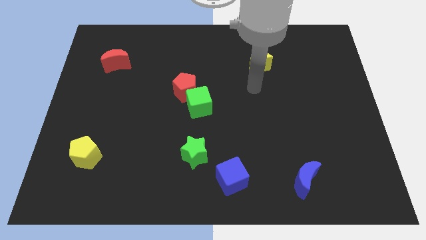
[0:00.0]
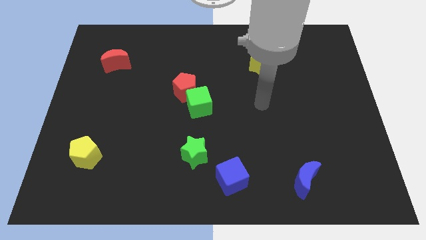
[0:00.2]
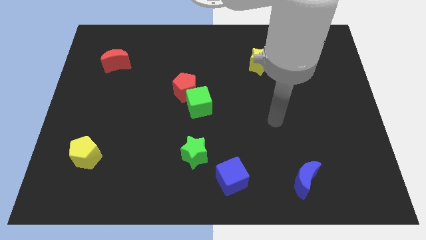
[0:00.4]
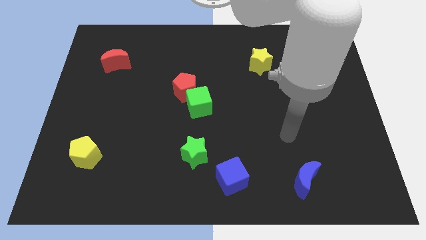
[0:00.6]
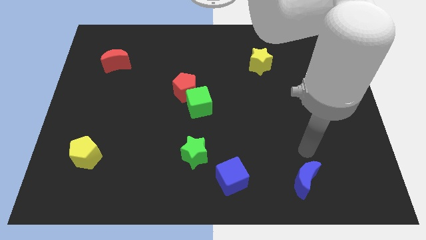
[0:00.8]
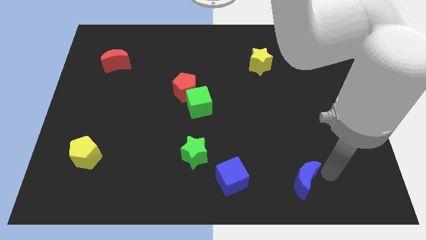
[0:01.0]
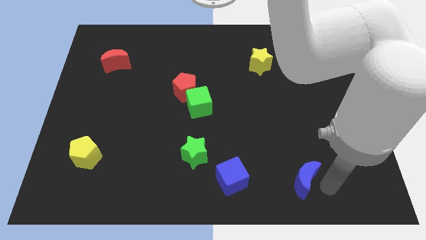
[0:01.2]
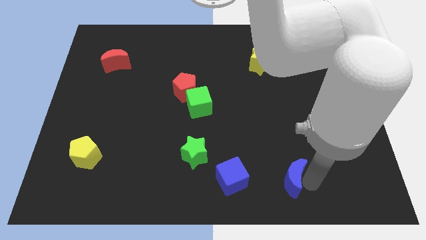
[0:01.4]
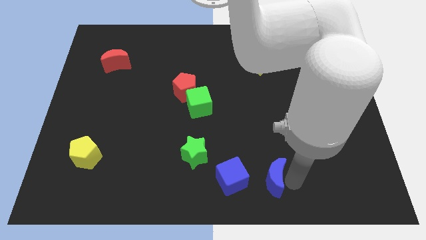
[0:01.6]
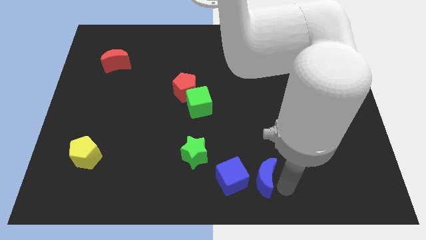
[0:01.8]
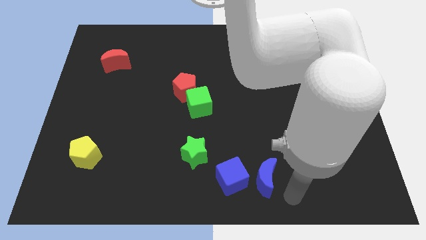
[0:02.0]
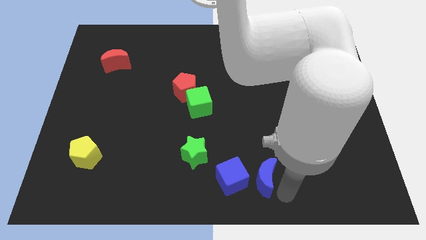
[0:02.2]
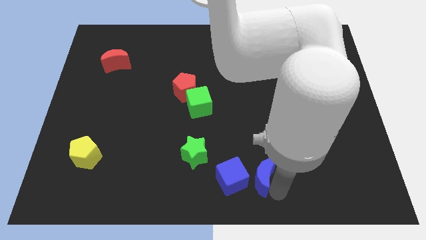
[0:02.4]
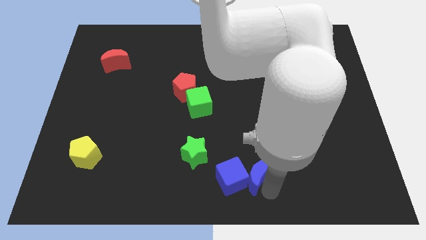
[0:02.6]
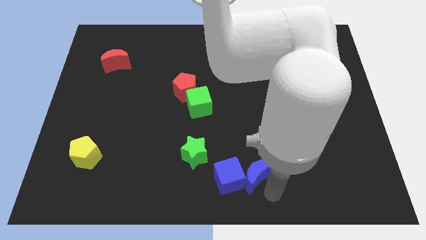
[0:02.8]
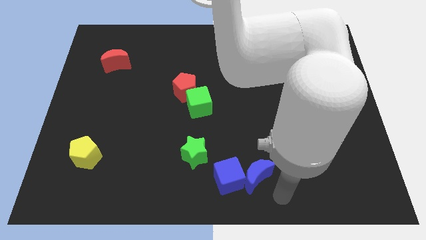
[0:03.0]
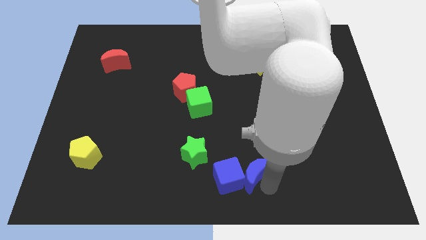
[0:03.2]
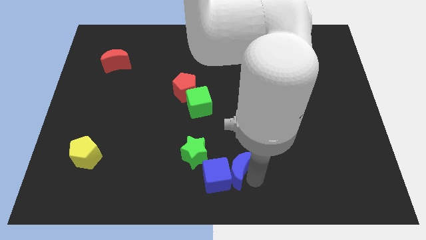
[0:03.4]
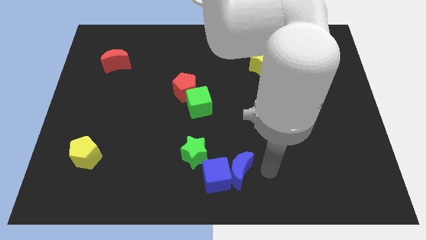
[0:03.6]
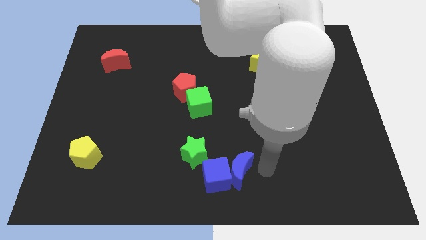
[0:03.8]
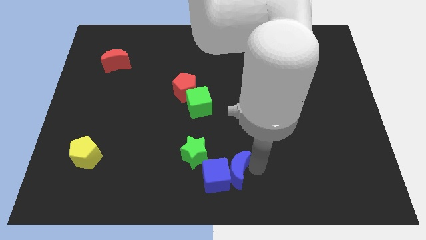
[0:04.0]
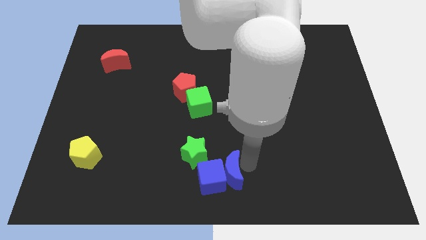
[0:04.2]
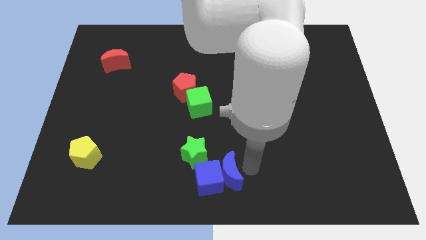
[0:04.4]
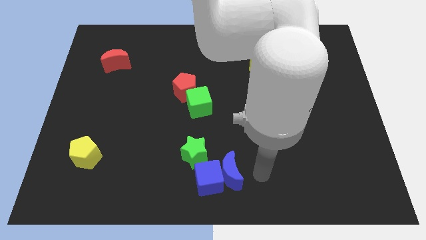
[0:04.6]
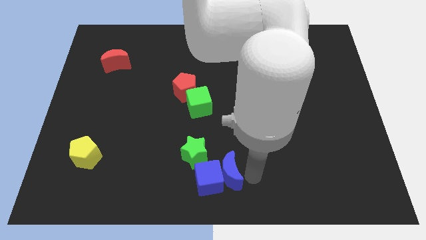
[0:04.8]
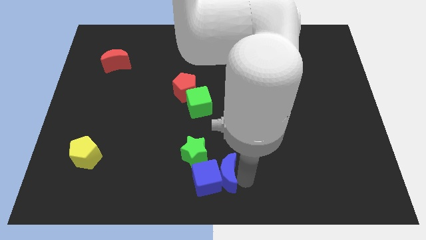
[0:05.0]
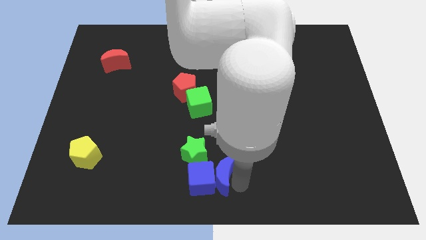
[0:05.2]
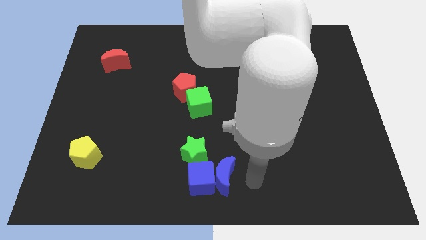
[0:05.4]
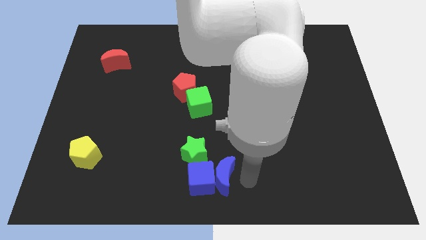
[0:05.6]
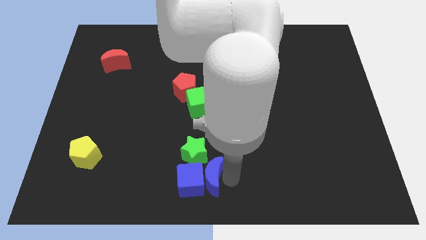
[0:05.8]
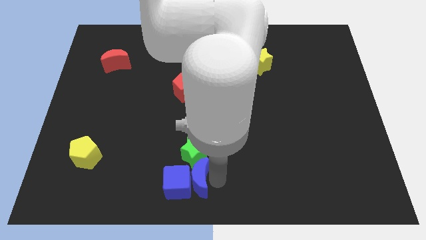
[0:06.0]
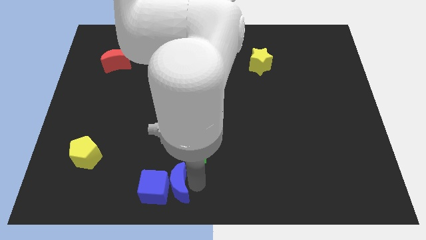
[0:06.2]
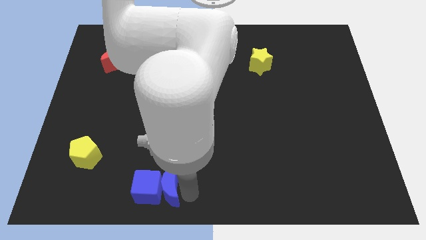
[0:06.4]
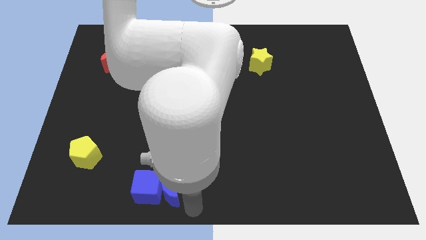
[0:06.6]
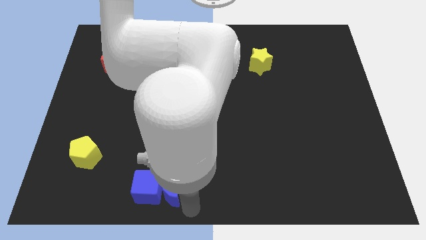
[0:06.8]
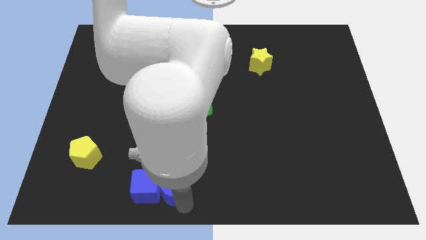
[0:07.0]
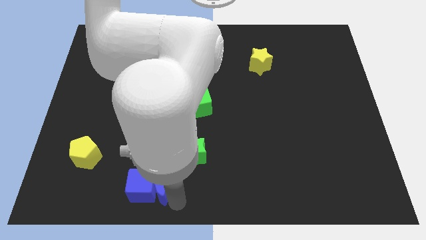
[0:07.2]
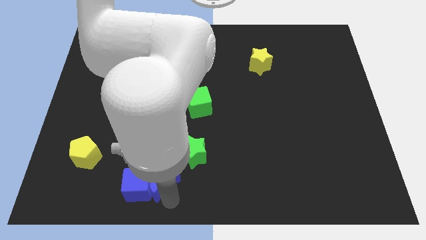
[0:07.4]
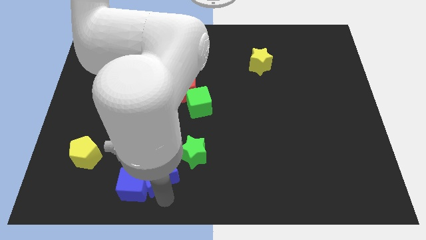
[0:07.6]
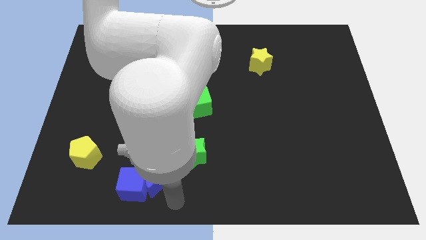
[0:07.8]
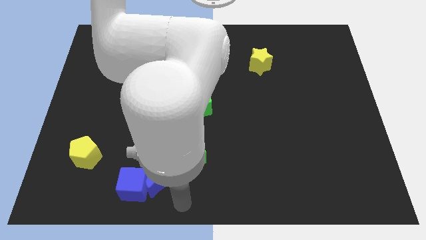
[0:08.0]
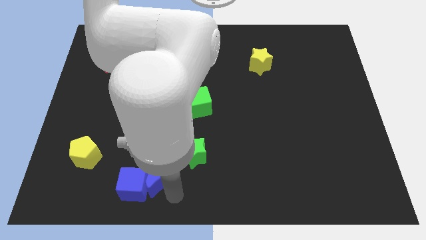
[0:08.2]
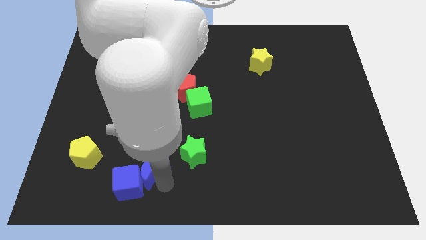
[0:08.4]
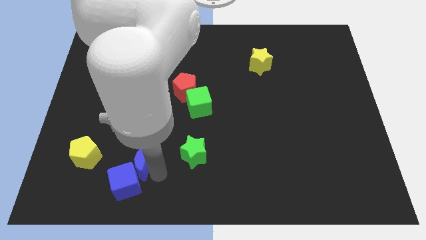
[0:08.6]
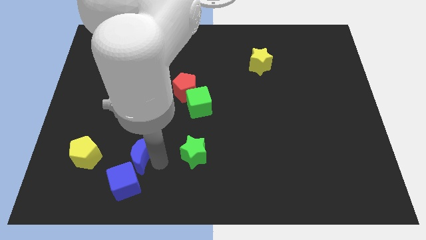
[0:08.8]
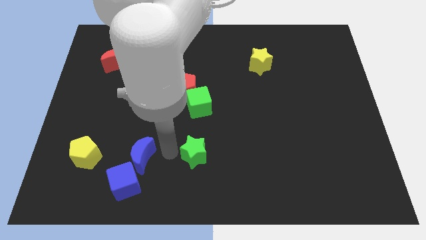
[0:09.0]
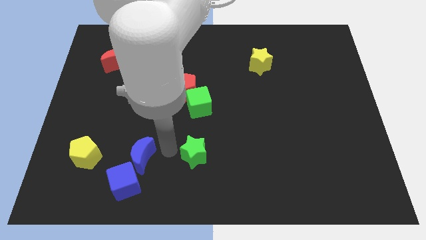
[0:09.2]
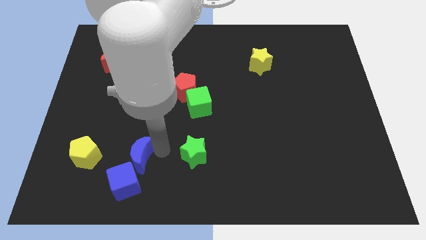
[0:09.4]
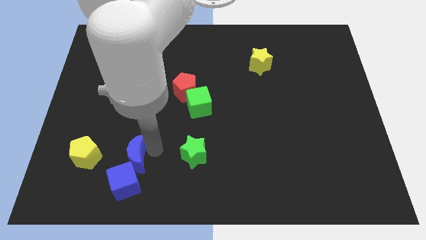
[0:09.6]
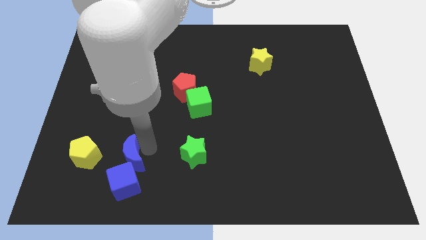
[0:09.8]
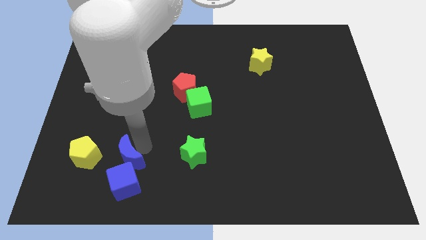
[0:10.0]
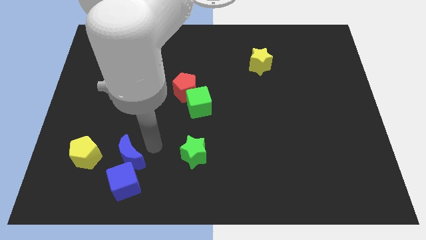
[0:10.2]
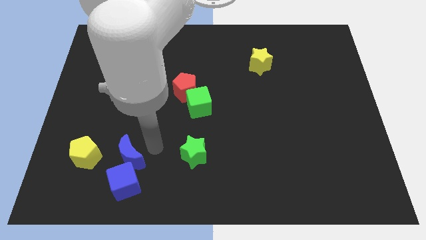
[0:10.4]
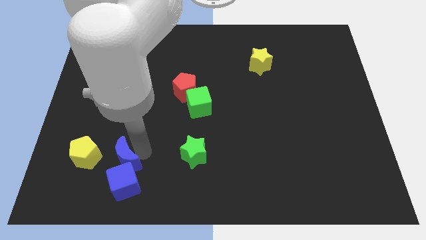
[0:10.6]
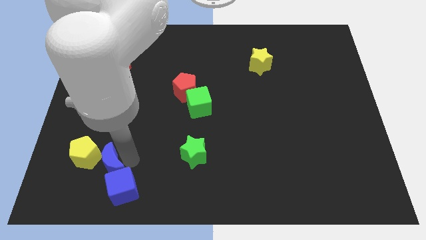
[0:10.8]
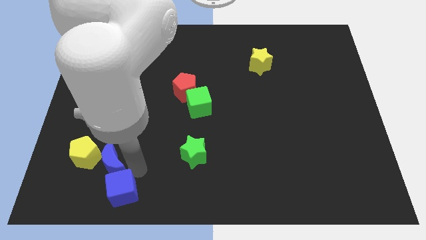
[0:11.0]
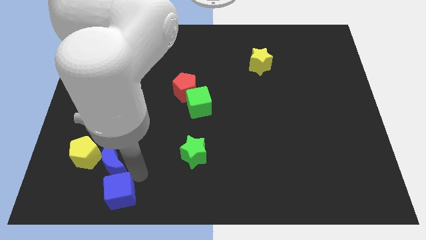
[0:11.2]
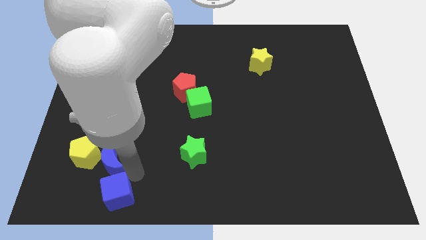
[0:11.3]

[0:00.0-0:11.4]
slide the blue moon to the yellow pentagon

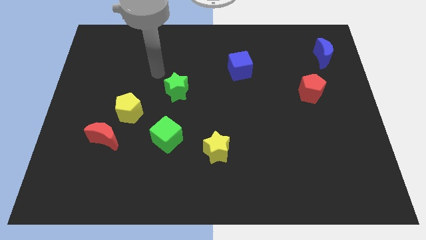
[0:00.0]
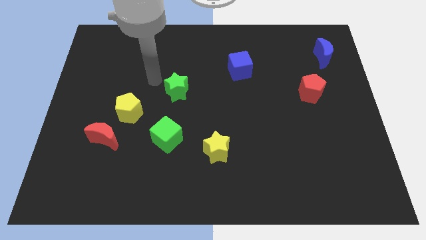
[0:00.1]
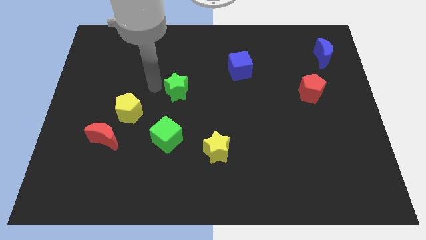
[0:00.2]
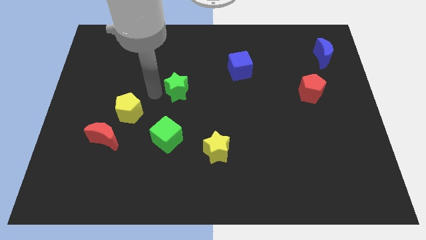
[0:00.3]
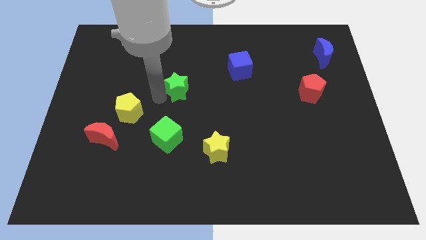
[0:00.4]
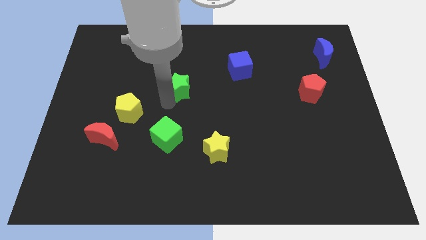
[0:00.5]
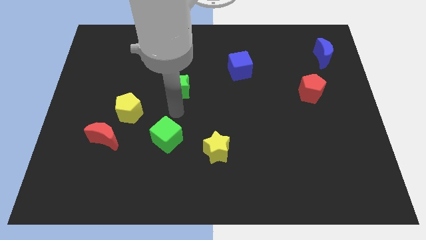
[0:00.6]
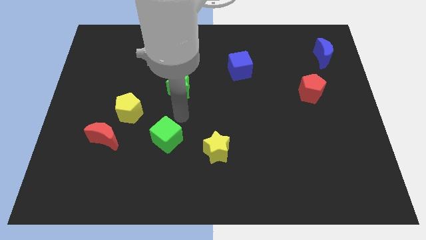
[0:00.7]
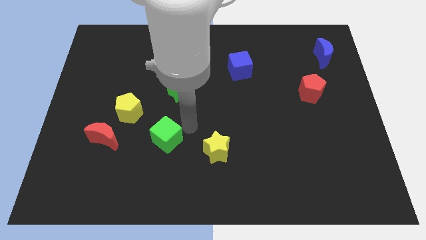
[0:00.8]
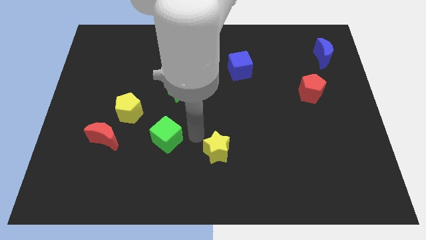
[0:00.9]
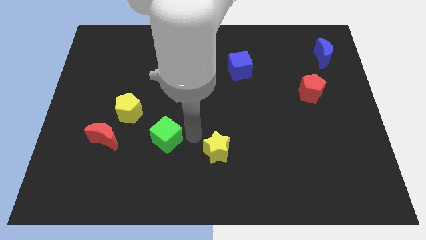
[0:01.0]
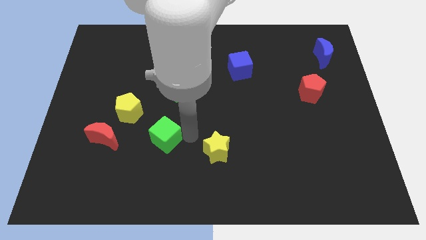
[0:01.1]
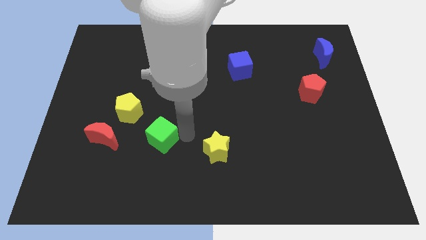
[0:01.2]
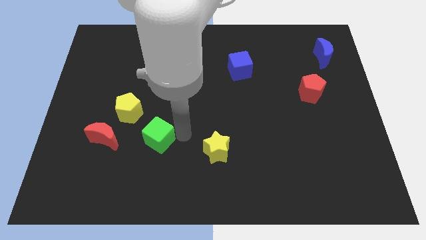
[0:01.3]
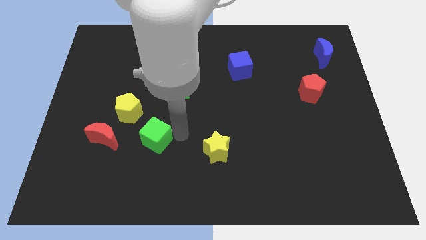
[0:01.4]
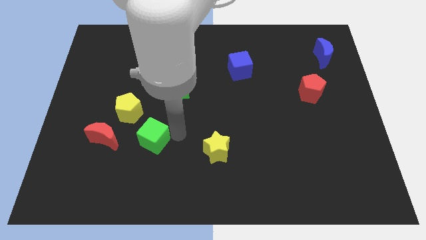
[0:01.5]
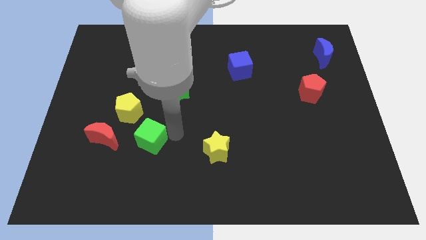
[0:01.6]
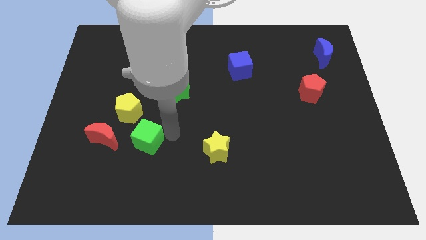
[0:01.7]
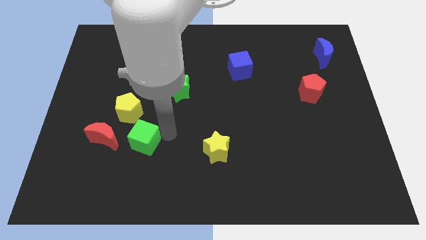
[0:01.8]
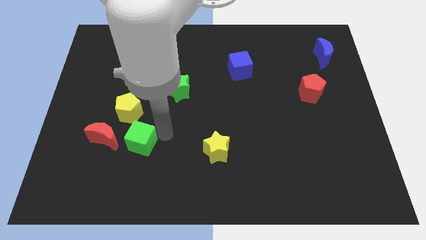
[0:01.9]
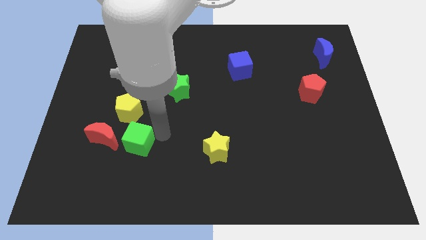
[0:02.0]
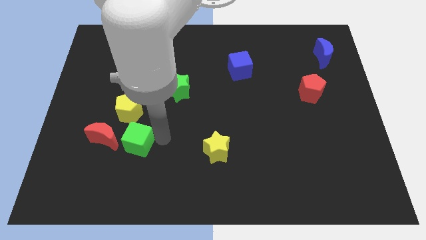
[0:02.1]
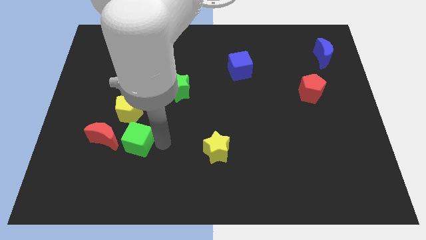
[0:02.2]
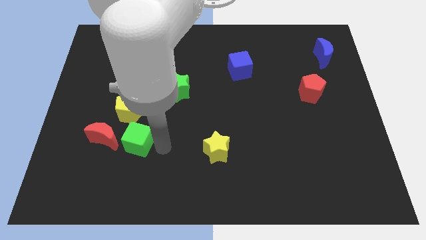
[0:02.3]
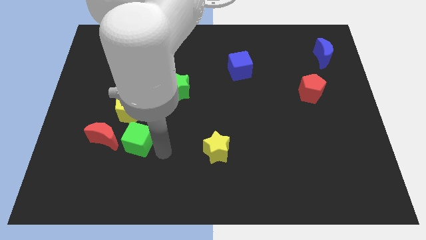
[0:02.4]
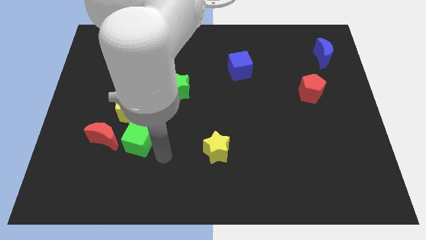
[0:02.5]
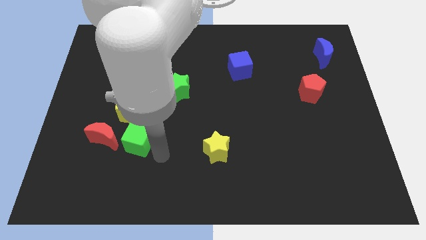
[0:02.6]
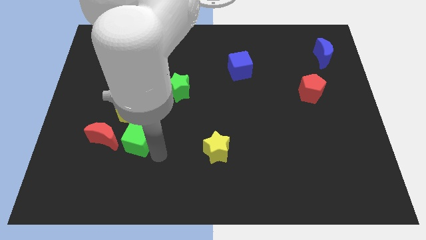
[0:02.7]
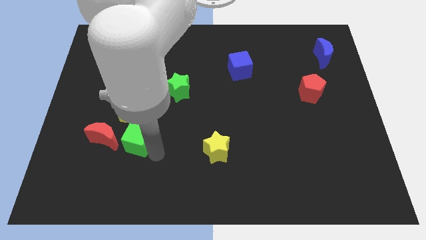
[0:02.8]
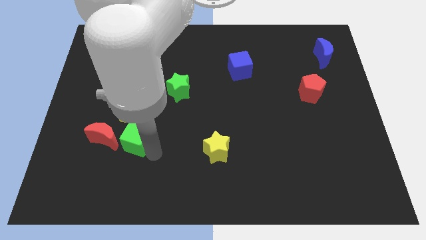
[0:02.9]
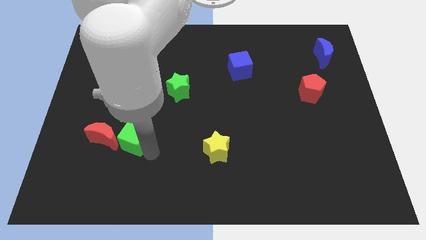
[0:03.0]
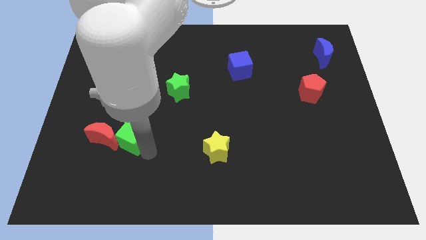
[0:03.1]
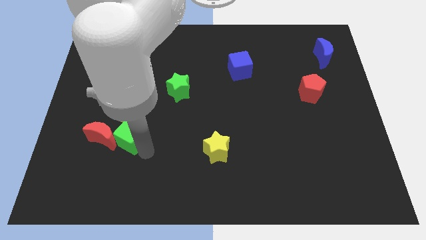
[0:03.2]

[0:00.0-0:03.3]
put the green cube close to the red moon
